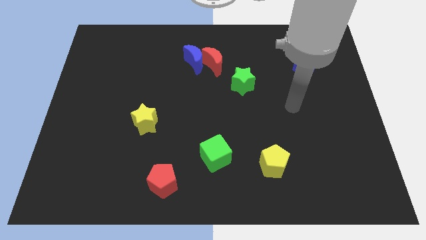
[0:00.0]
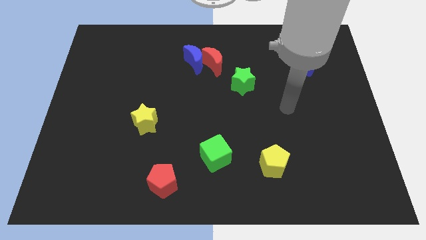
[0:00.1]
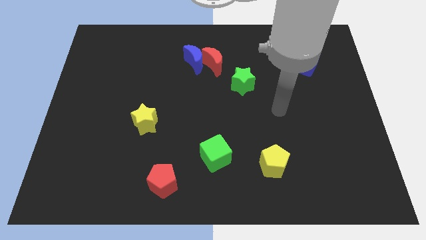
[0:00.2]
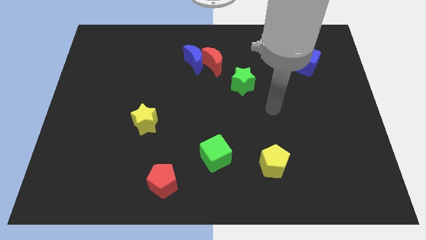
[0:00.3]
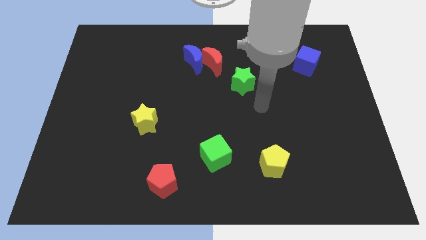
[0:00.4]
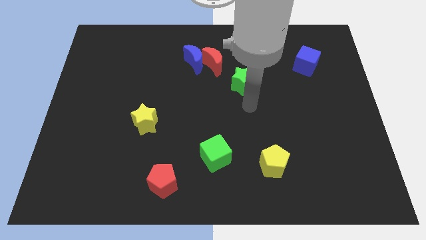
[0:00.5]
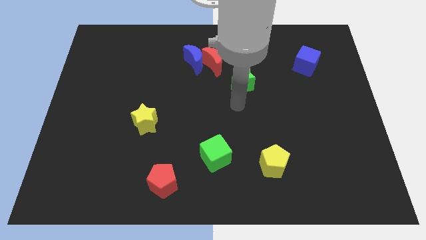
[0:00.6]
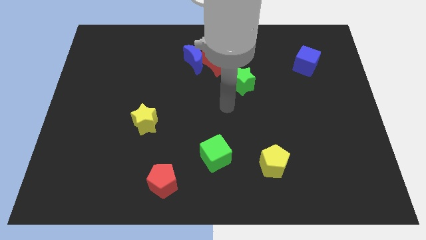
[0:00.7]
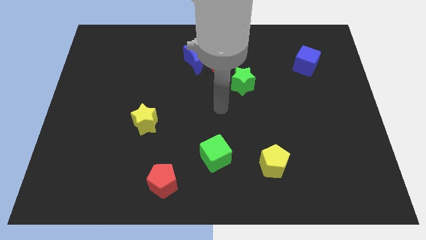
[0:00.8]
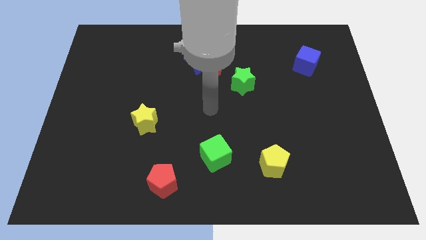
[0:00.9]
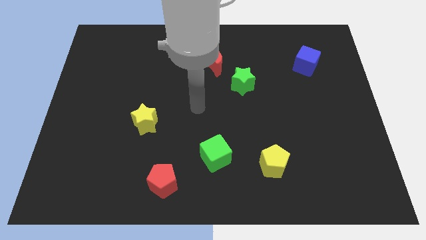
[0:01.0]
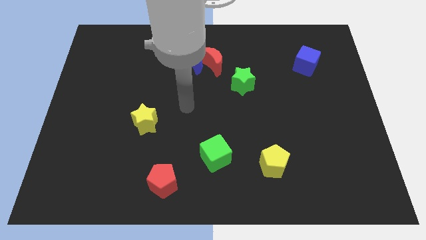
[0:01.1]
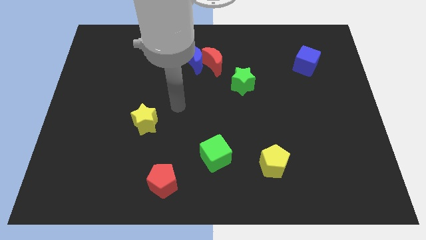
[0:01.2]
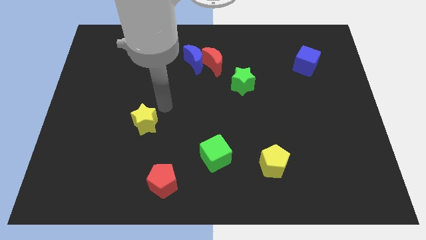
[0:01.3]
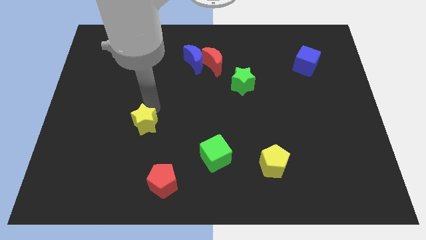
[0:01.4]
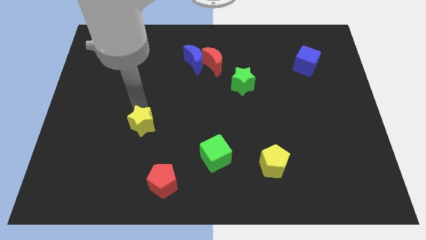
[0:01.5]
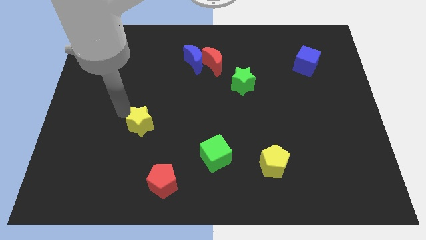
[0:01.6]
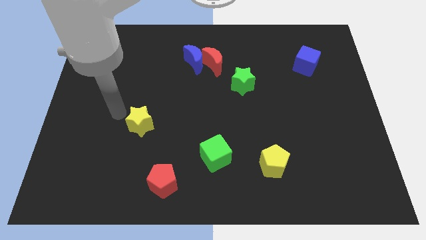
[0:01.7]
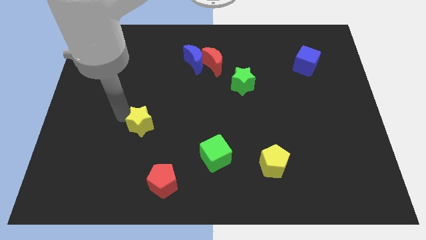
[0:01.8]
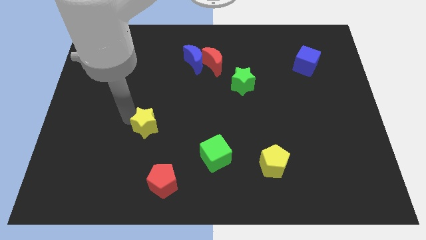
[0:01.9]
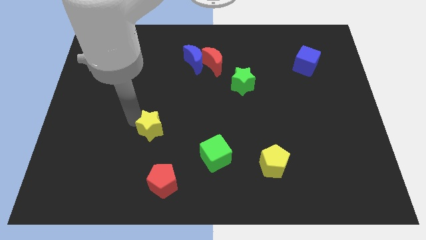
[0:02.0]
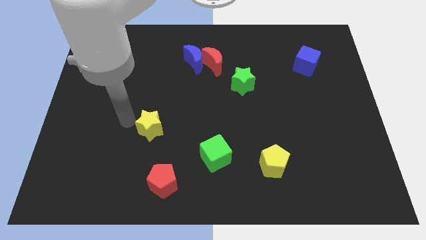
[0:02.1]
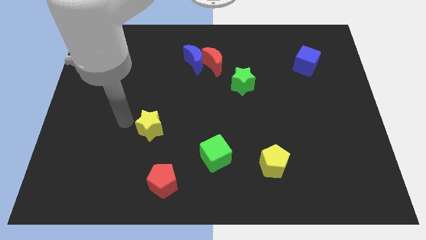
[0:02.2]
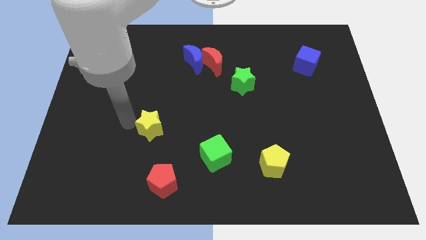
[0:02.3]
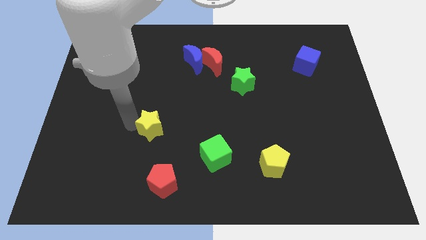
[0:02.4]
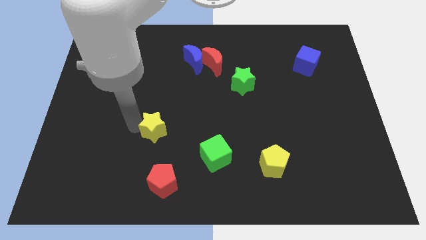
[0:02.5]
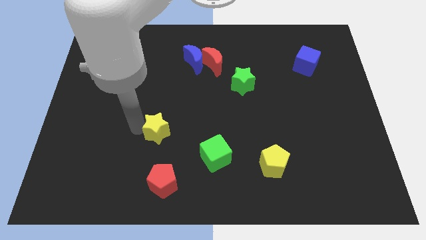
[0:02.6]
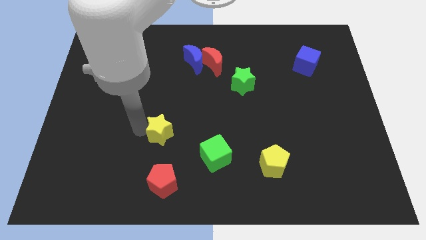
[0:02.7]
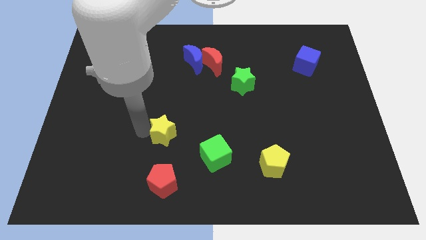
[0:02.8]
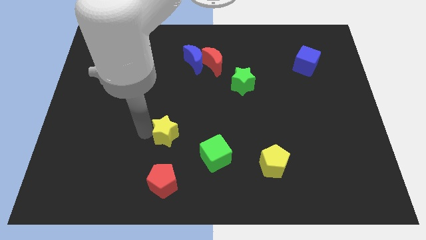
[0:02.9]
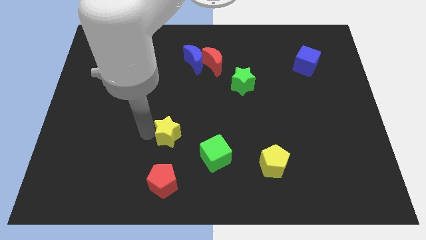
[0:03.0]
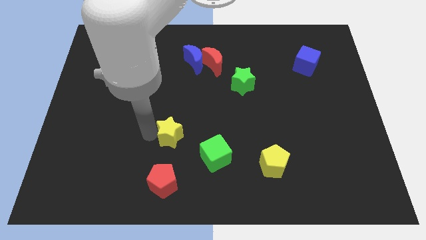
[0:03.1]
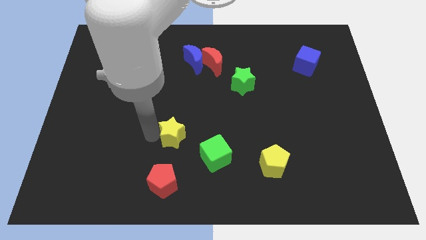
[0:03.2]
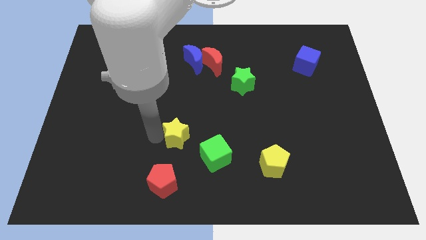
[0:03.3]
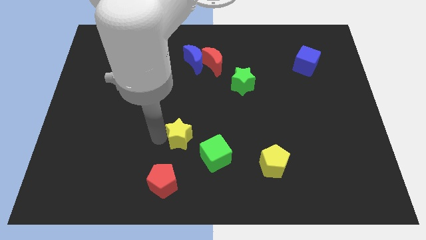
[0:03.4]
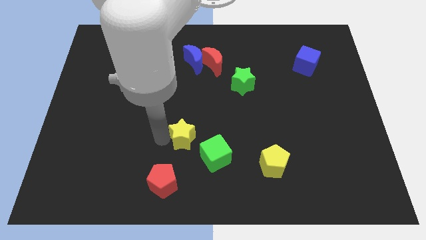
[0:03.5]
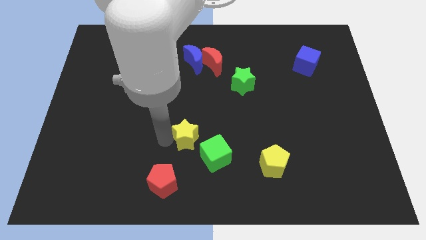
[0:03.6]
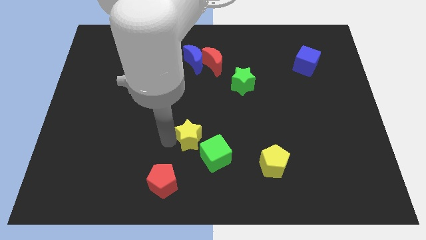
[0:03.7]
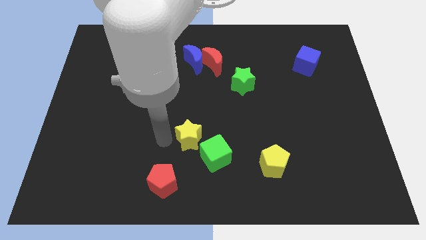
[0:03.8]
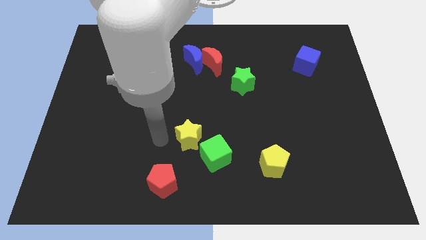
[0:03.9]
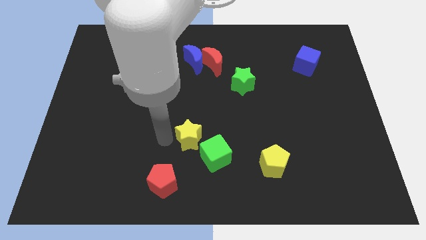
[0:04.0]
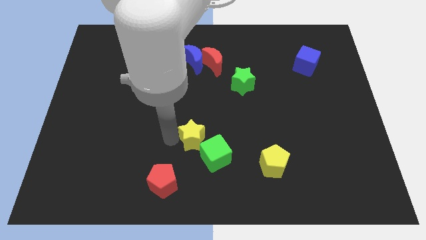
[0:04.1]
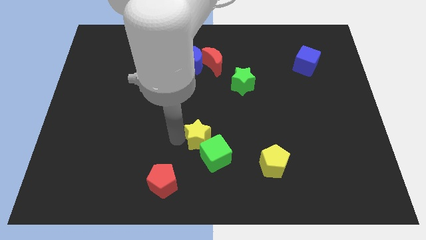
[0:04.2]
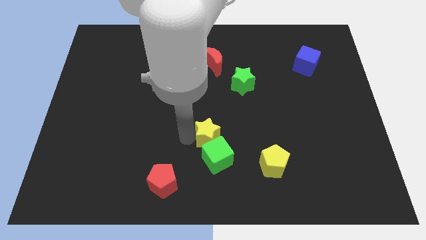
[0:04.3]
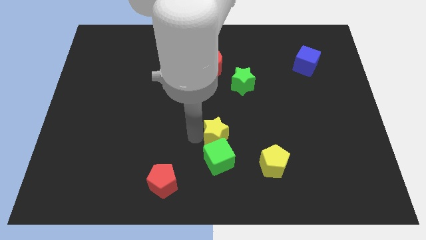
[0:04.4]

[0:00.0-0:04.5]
push the yellow star to the top right of the green cube

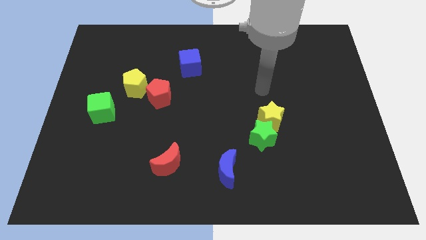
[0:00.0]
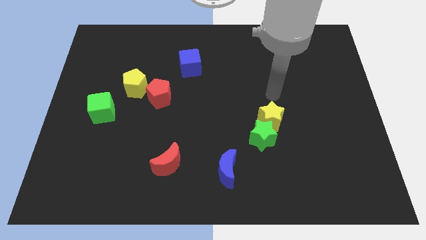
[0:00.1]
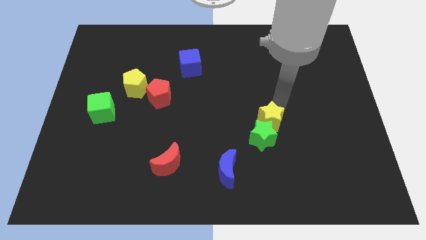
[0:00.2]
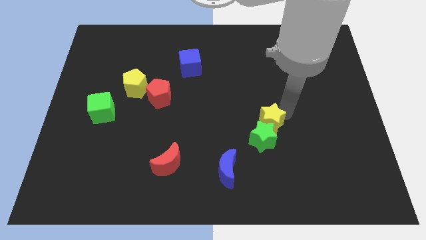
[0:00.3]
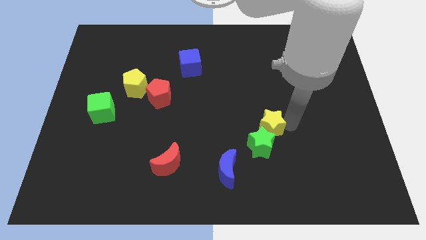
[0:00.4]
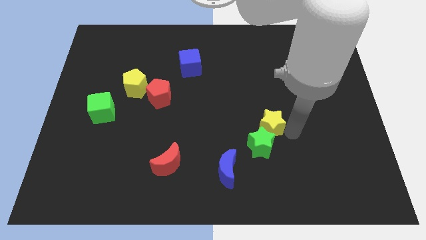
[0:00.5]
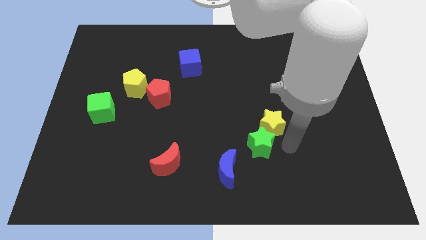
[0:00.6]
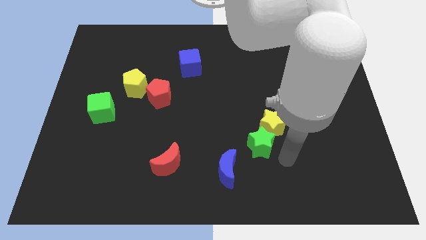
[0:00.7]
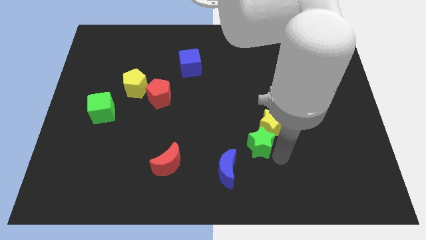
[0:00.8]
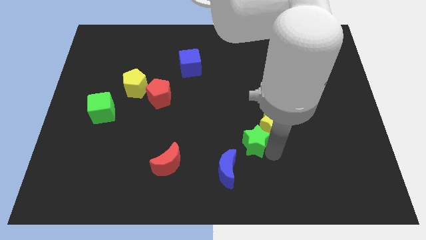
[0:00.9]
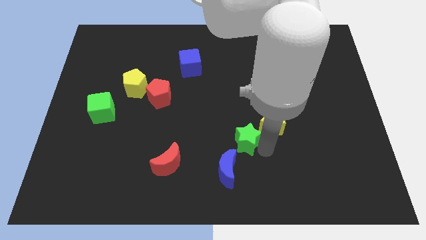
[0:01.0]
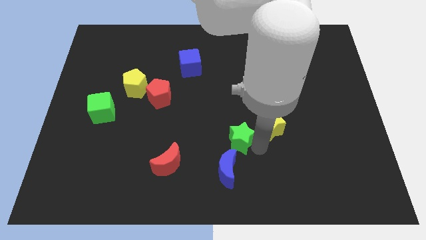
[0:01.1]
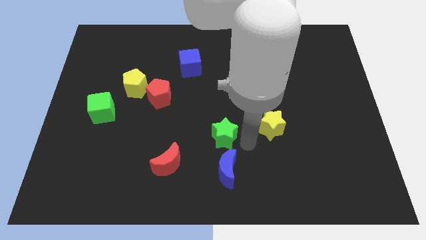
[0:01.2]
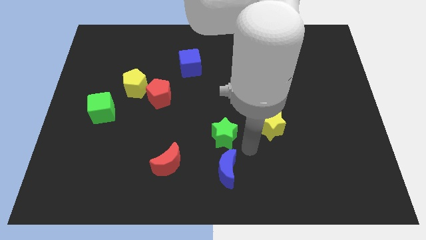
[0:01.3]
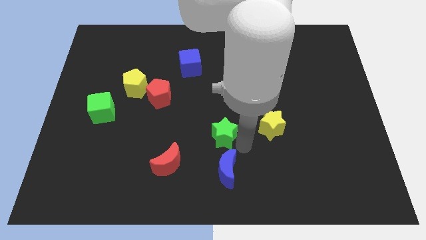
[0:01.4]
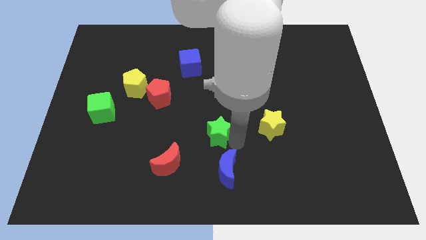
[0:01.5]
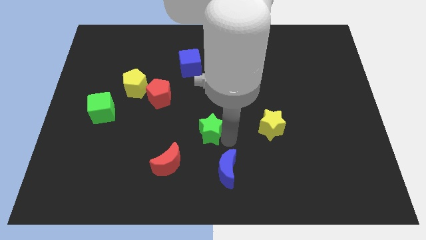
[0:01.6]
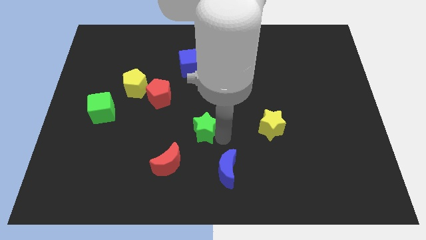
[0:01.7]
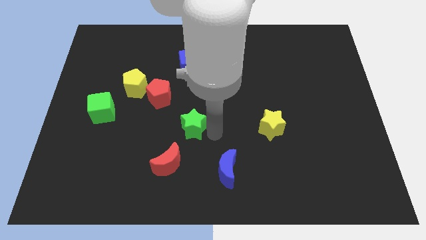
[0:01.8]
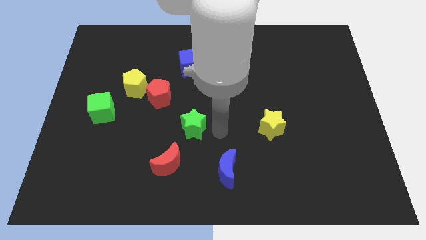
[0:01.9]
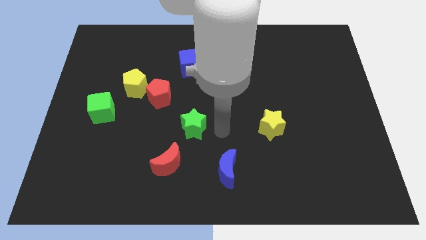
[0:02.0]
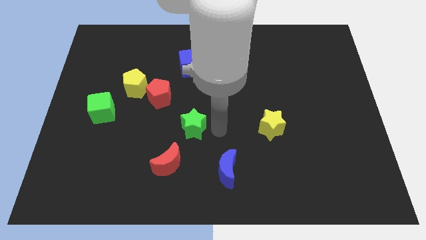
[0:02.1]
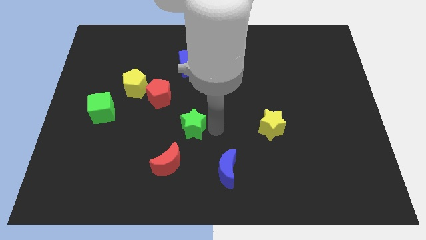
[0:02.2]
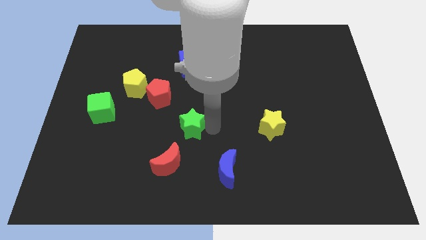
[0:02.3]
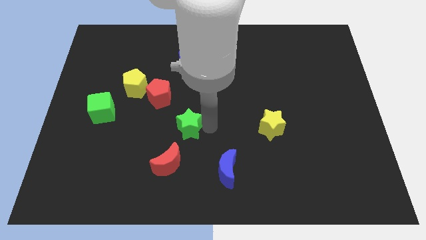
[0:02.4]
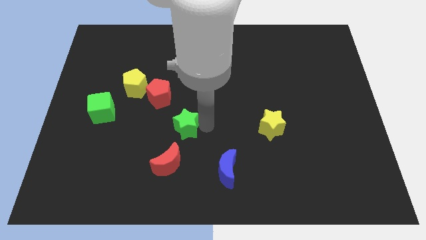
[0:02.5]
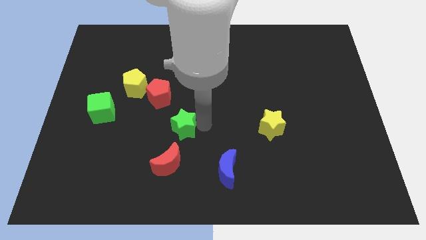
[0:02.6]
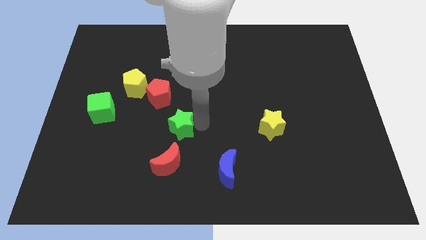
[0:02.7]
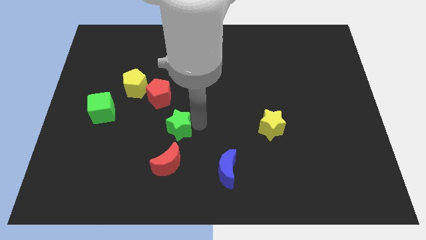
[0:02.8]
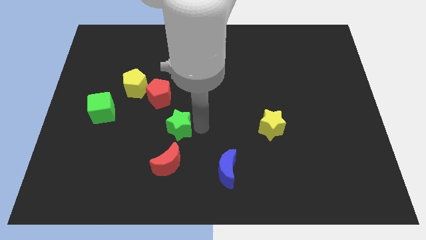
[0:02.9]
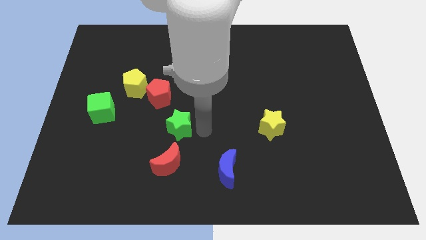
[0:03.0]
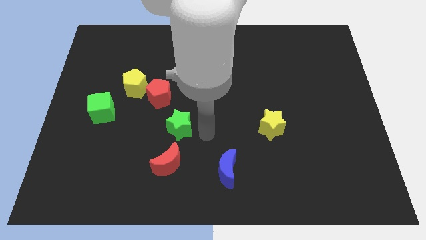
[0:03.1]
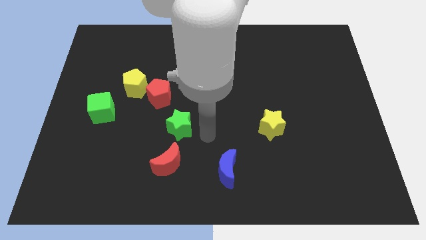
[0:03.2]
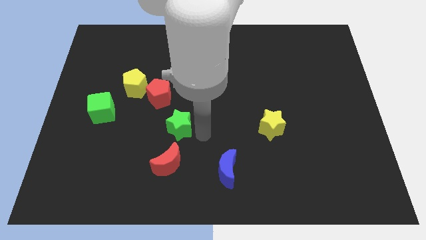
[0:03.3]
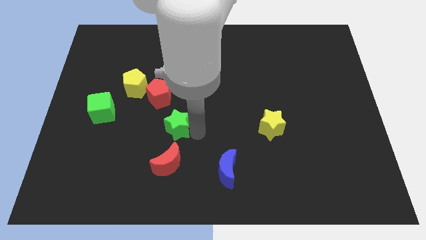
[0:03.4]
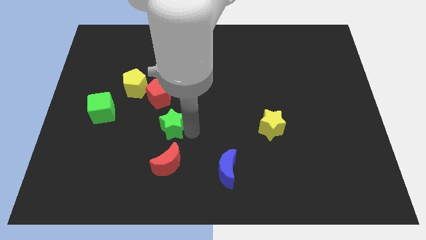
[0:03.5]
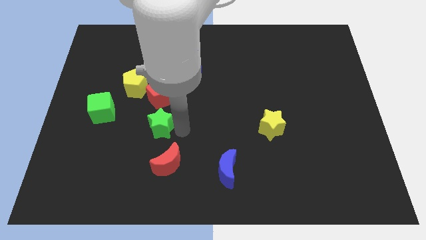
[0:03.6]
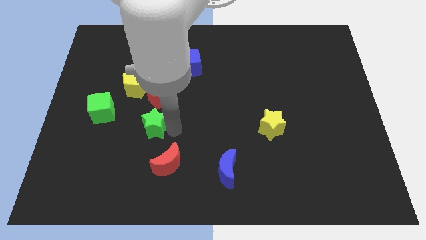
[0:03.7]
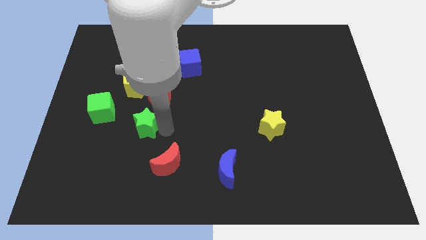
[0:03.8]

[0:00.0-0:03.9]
move the green star to the bottom left side of the red pentagon
